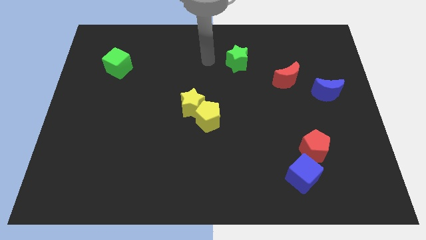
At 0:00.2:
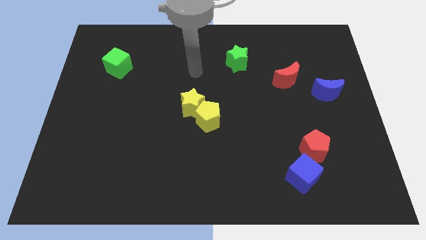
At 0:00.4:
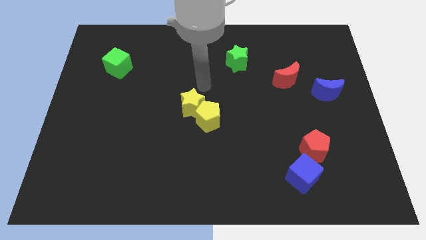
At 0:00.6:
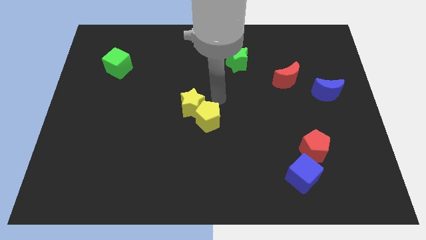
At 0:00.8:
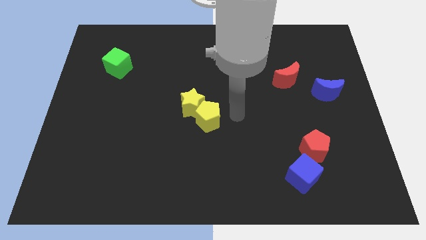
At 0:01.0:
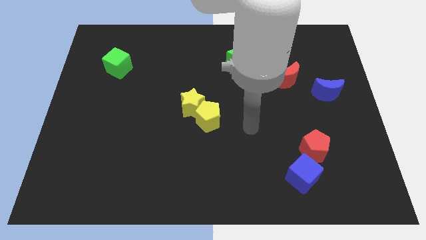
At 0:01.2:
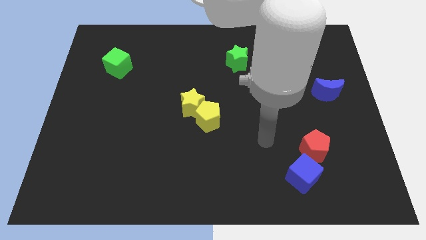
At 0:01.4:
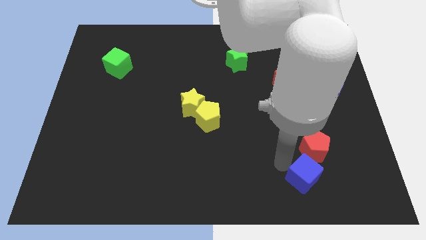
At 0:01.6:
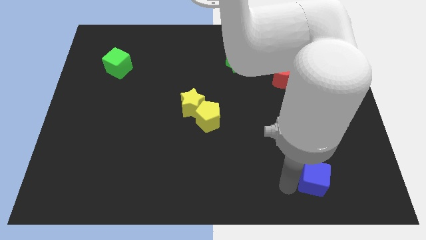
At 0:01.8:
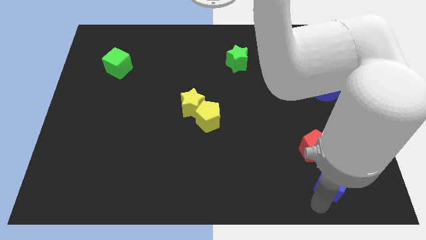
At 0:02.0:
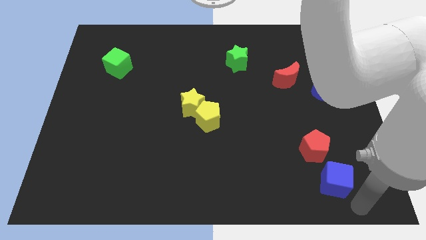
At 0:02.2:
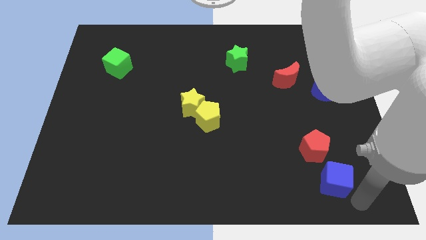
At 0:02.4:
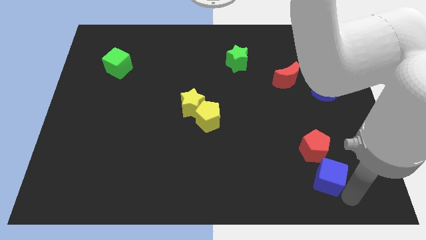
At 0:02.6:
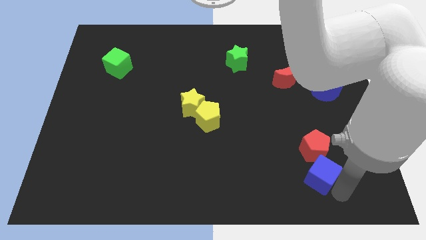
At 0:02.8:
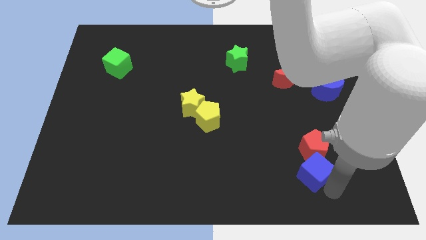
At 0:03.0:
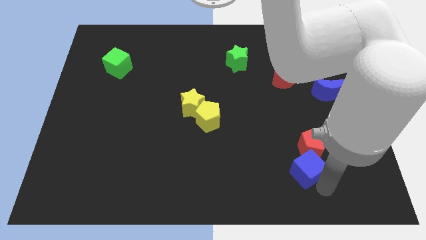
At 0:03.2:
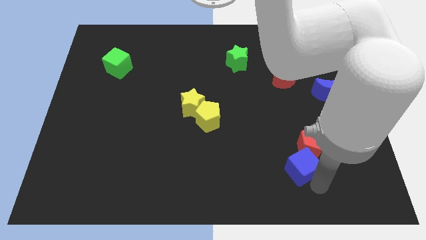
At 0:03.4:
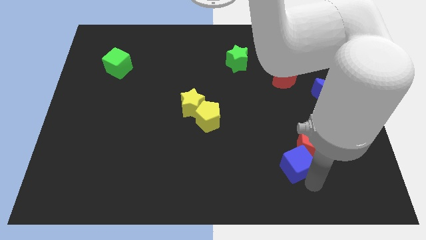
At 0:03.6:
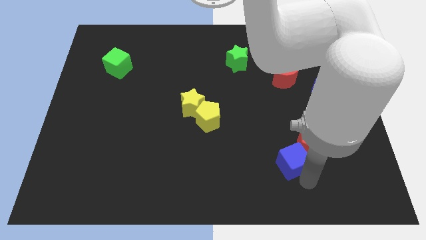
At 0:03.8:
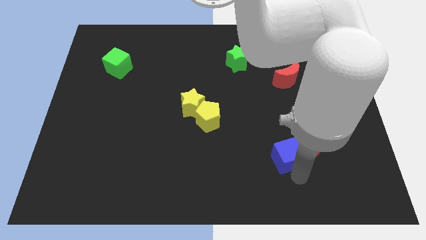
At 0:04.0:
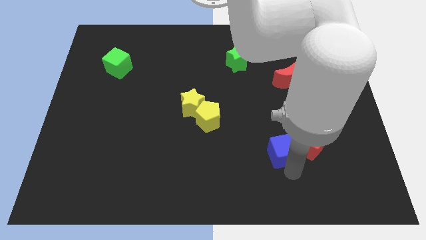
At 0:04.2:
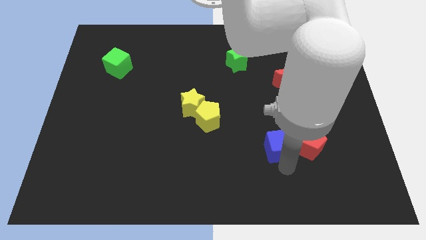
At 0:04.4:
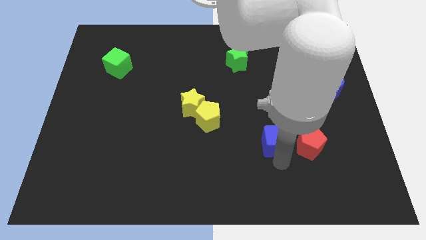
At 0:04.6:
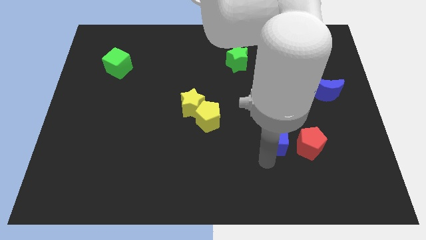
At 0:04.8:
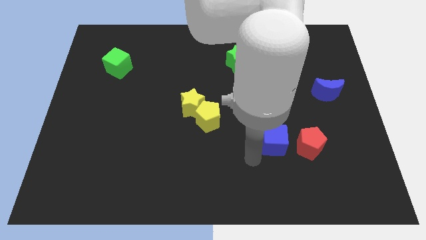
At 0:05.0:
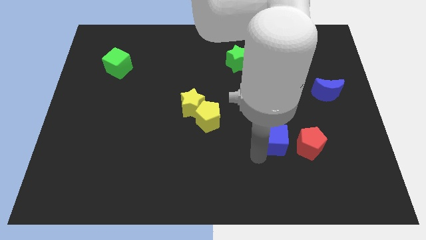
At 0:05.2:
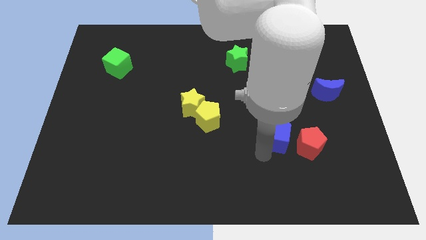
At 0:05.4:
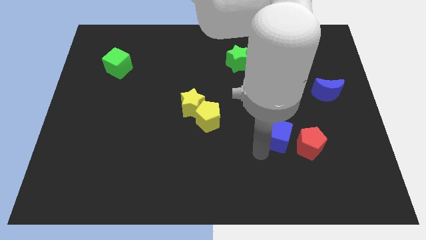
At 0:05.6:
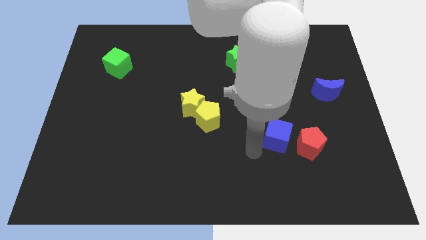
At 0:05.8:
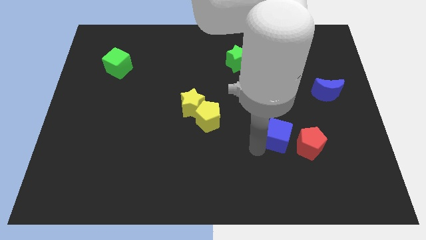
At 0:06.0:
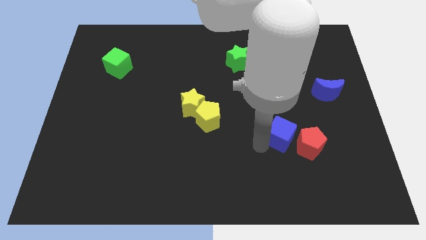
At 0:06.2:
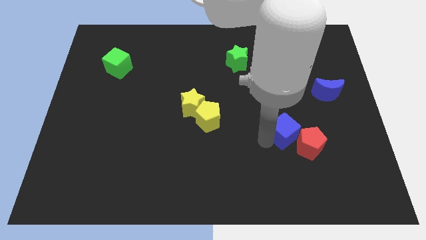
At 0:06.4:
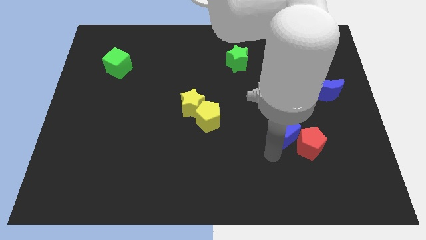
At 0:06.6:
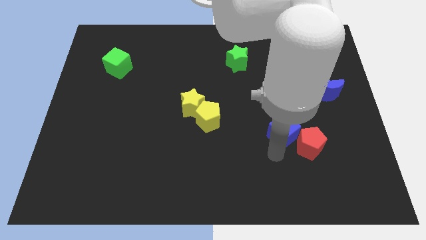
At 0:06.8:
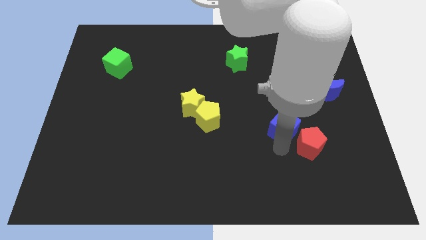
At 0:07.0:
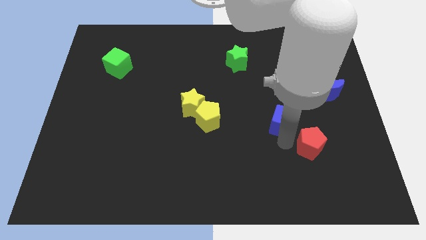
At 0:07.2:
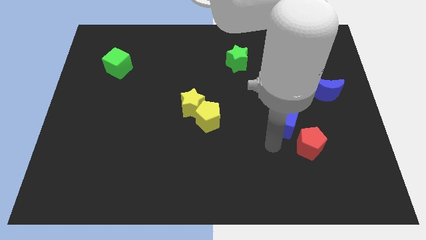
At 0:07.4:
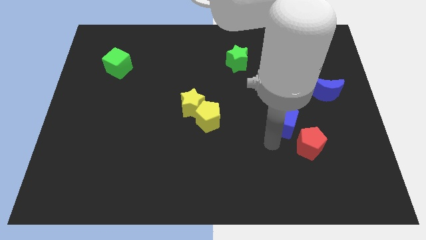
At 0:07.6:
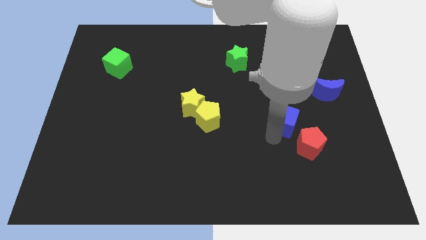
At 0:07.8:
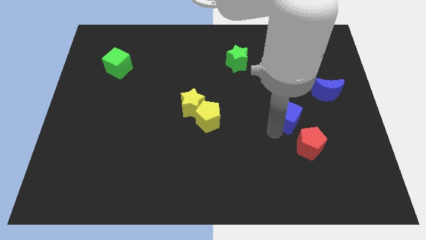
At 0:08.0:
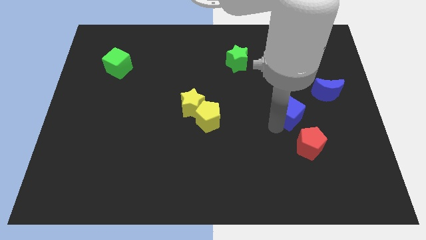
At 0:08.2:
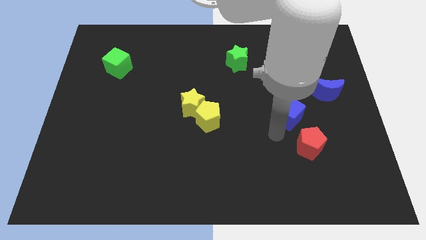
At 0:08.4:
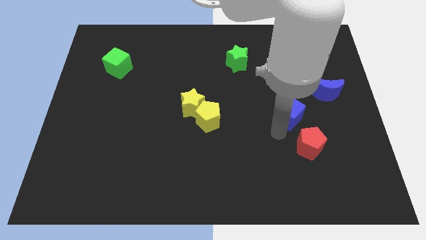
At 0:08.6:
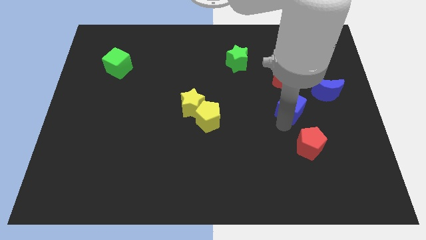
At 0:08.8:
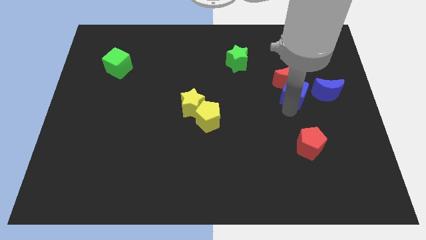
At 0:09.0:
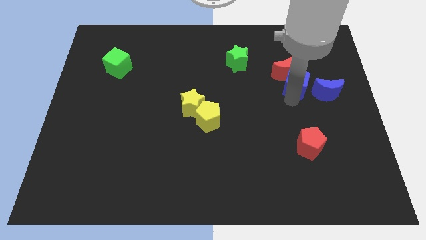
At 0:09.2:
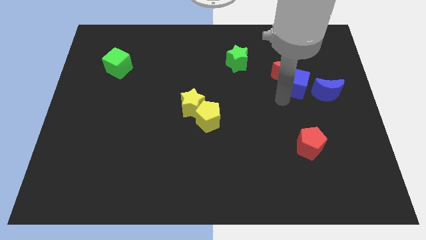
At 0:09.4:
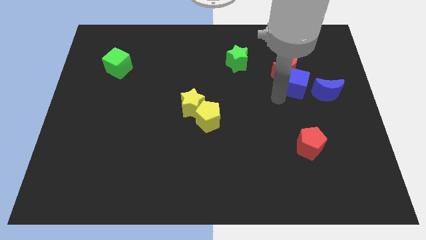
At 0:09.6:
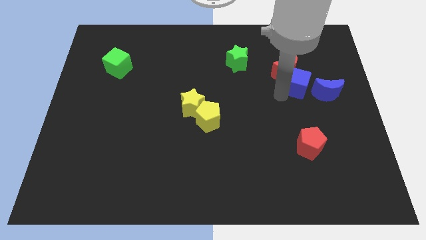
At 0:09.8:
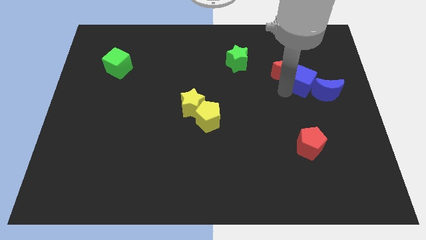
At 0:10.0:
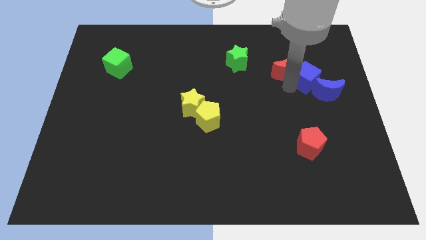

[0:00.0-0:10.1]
move the blue cube above the blue moon

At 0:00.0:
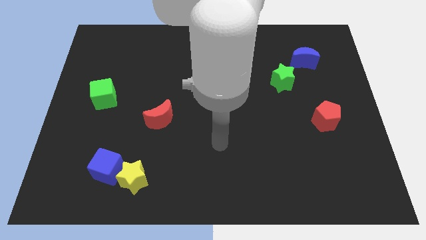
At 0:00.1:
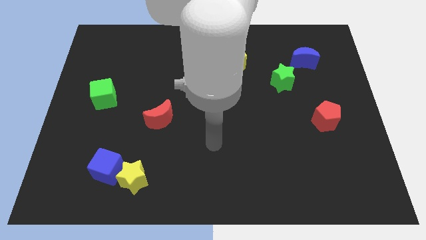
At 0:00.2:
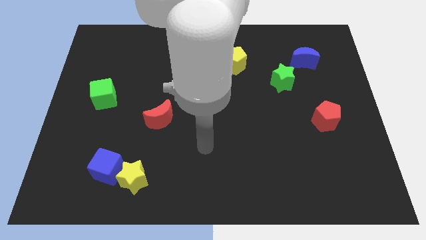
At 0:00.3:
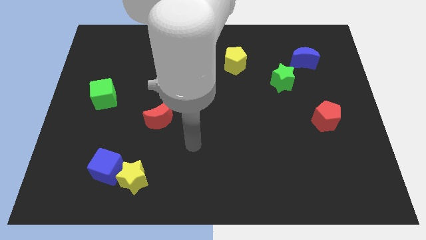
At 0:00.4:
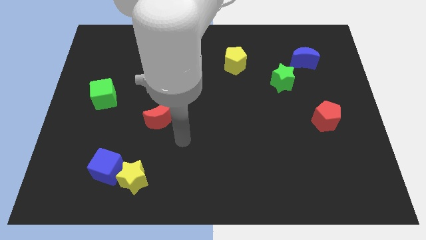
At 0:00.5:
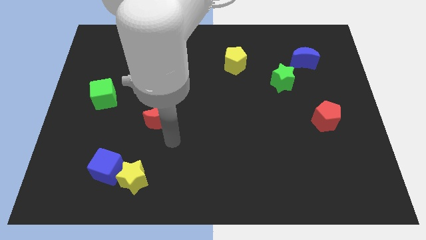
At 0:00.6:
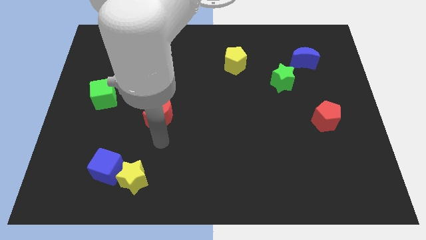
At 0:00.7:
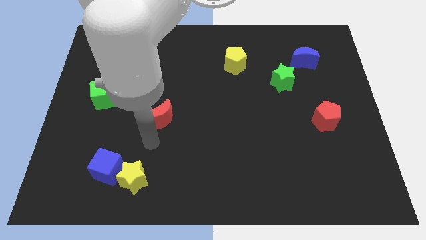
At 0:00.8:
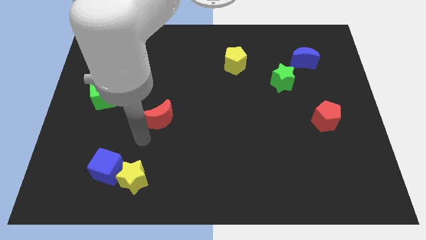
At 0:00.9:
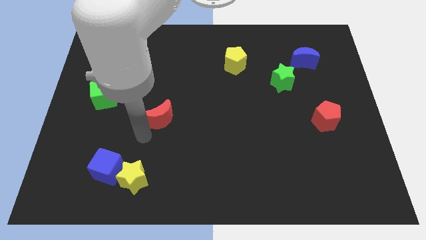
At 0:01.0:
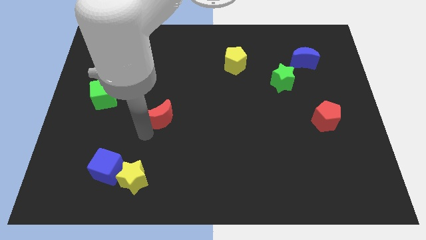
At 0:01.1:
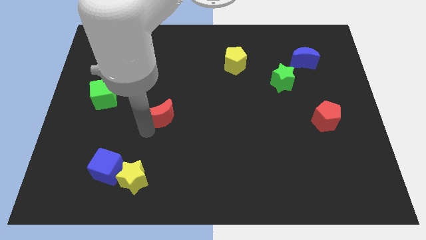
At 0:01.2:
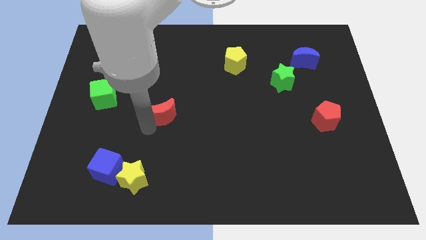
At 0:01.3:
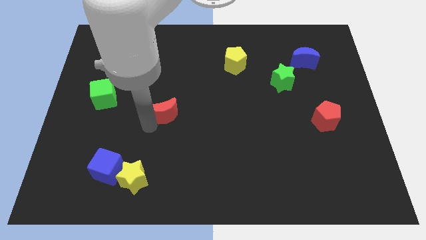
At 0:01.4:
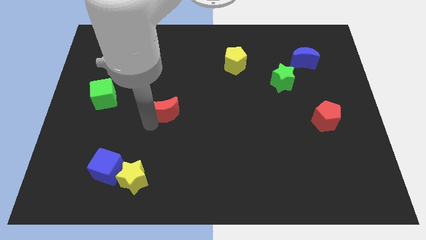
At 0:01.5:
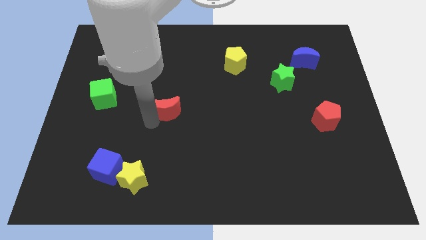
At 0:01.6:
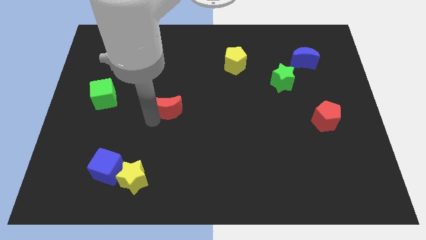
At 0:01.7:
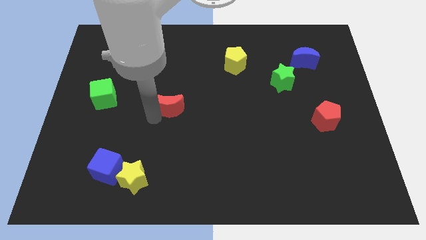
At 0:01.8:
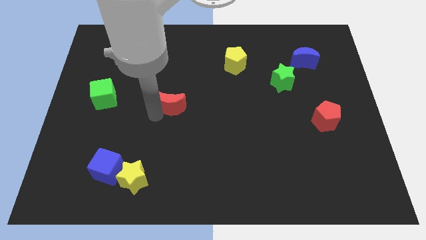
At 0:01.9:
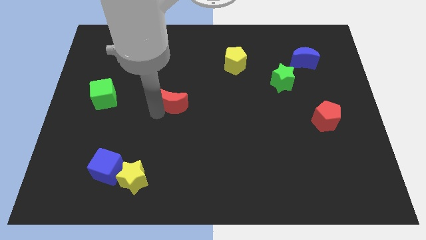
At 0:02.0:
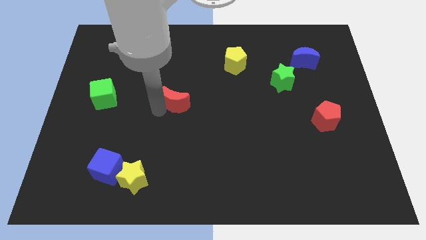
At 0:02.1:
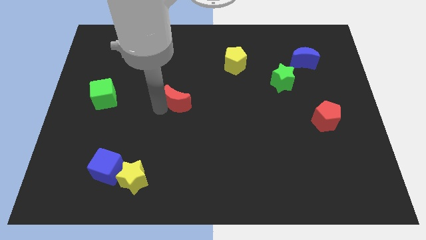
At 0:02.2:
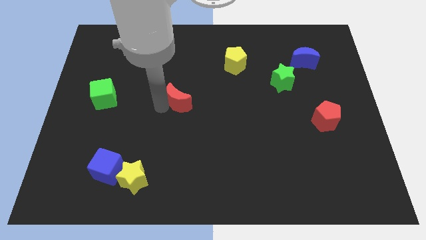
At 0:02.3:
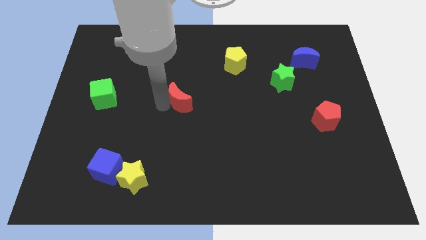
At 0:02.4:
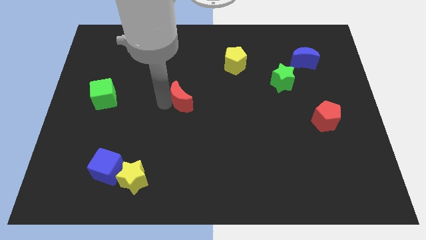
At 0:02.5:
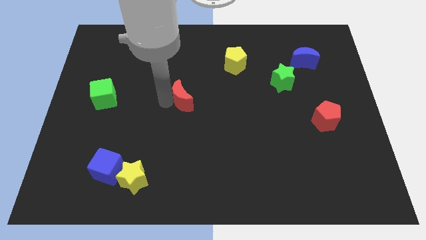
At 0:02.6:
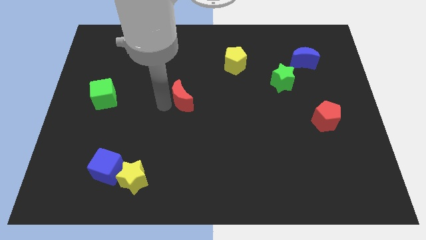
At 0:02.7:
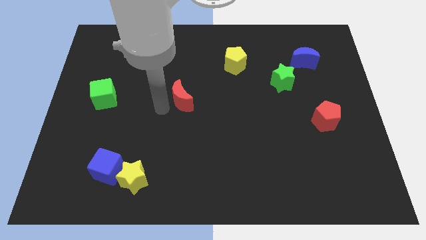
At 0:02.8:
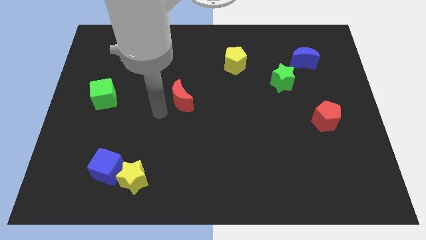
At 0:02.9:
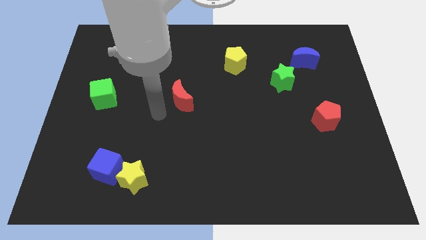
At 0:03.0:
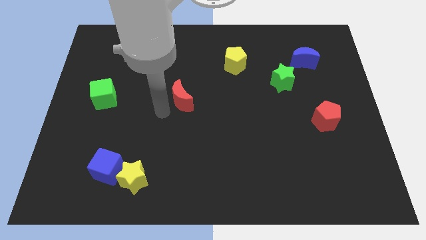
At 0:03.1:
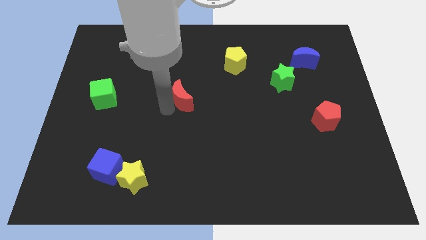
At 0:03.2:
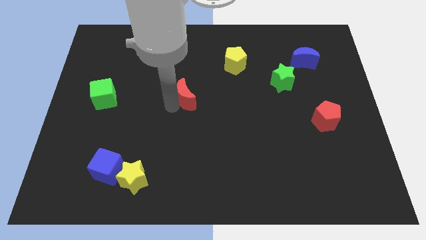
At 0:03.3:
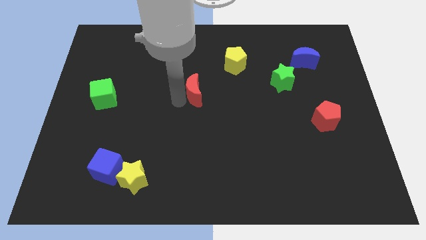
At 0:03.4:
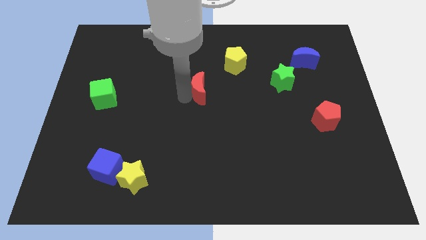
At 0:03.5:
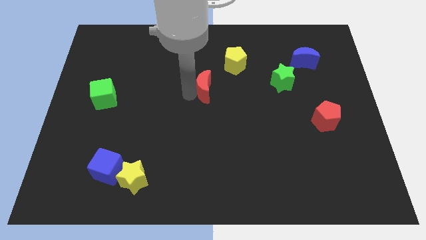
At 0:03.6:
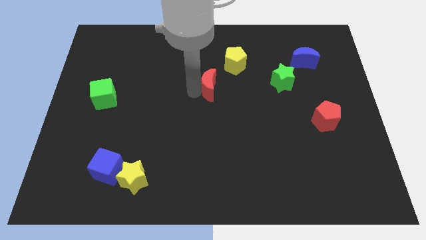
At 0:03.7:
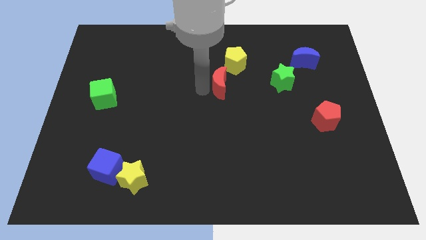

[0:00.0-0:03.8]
slide the red moon just left of the green star
